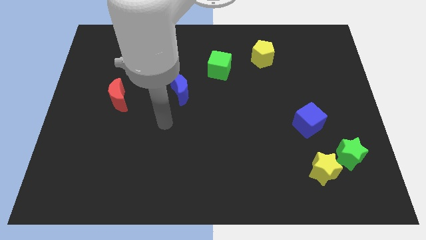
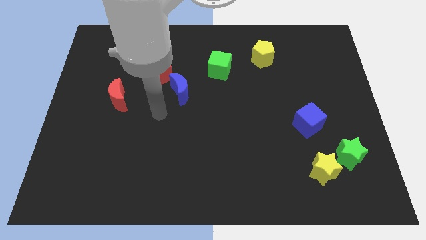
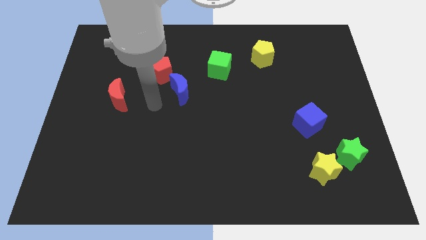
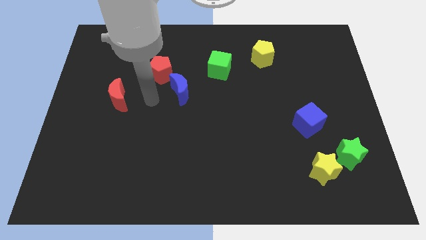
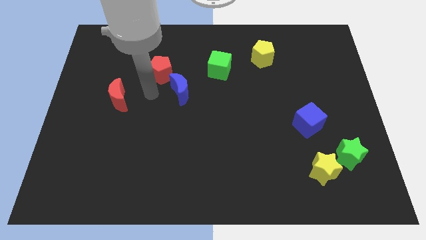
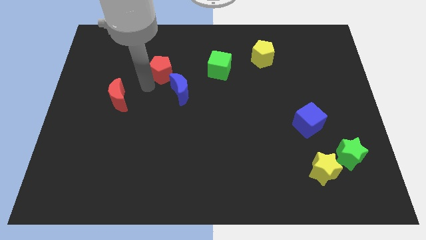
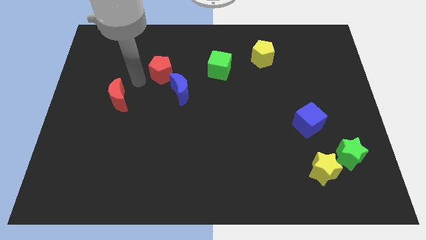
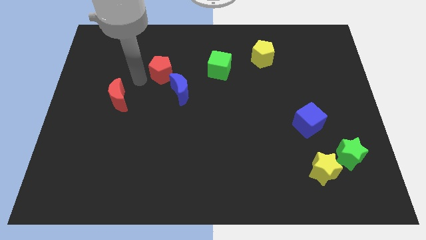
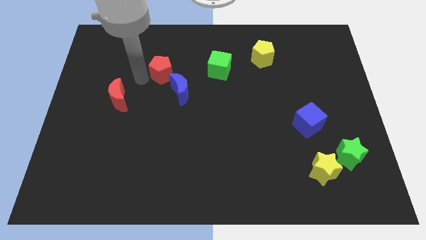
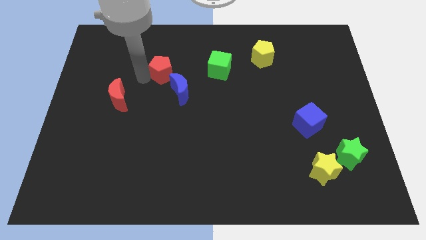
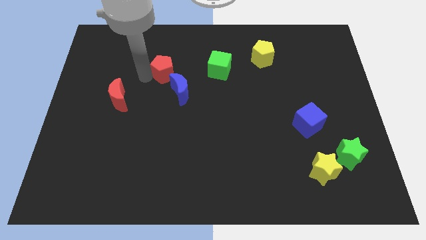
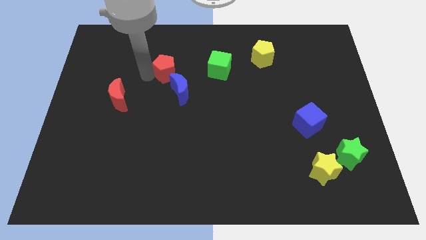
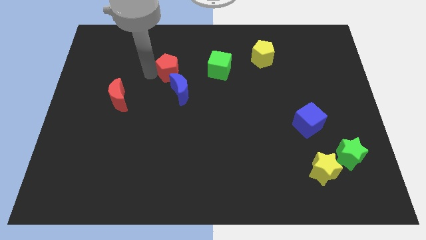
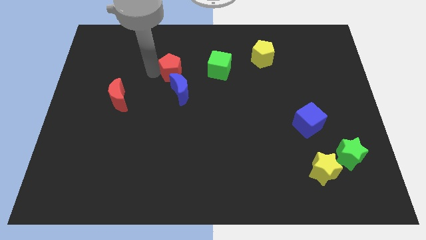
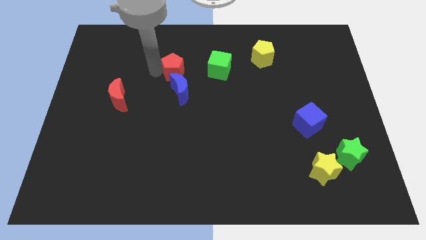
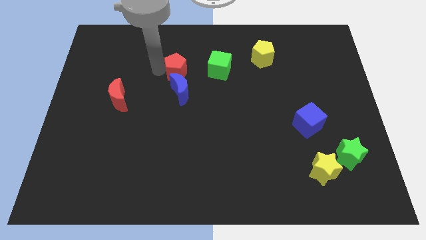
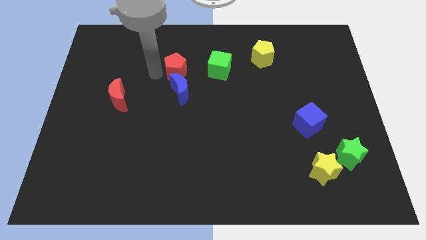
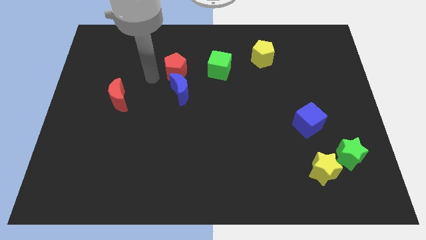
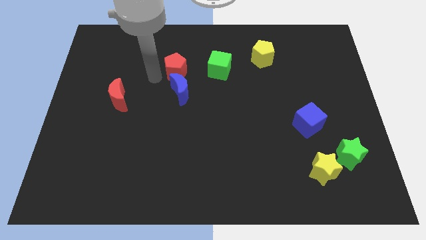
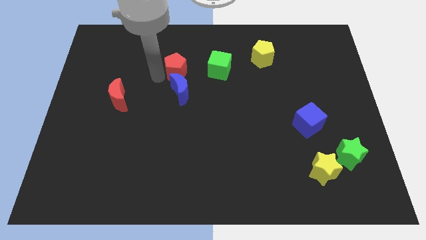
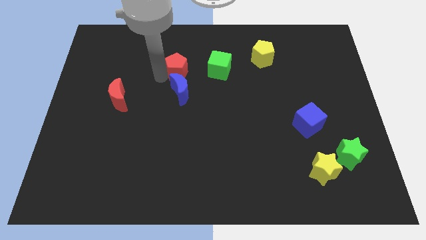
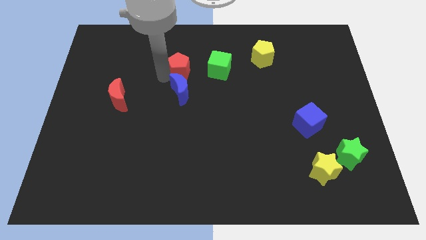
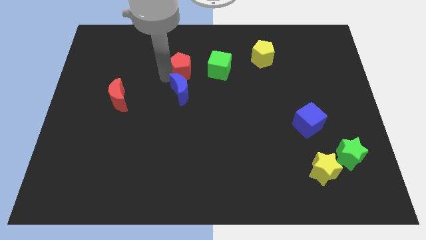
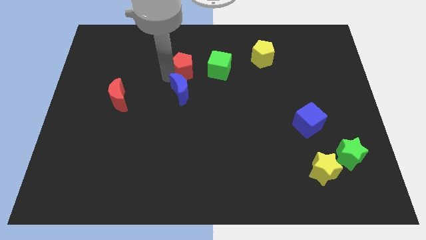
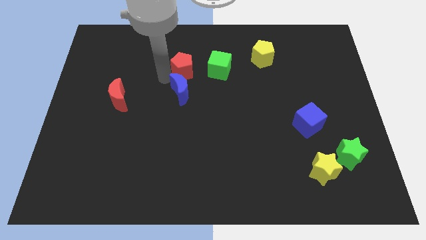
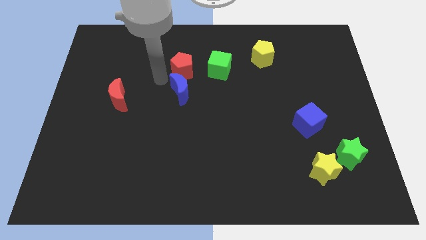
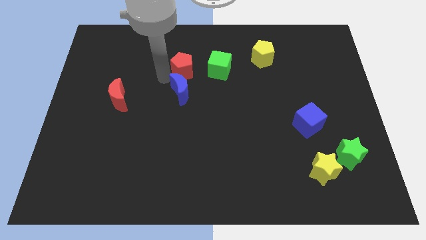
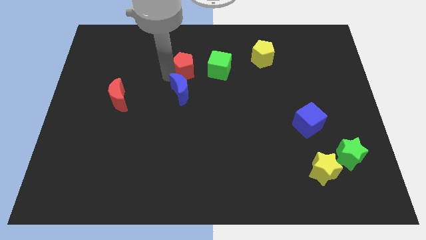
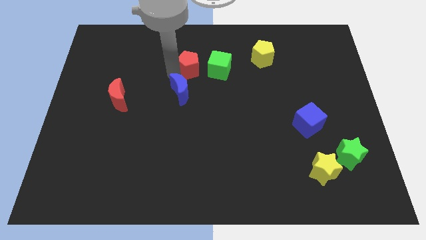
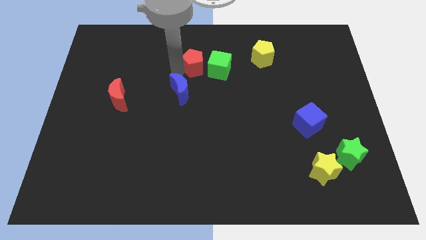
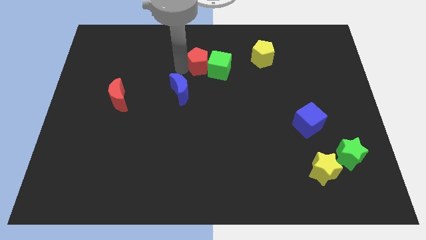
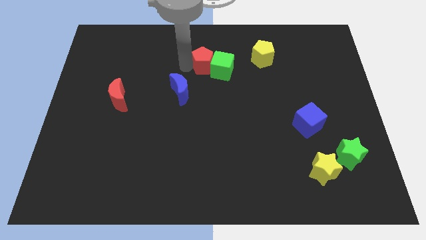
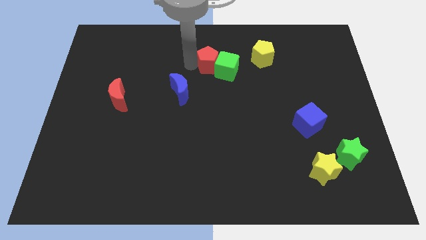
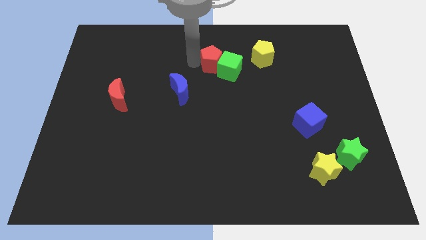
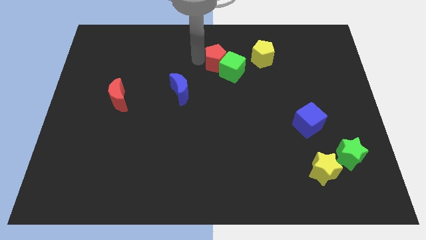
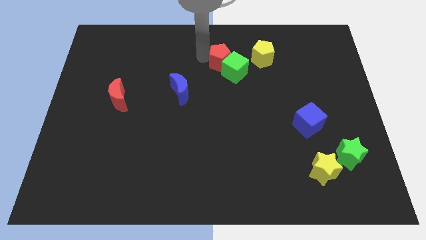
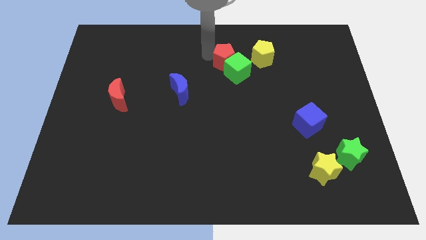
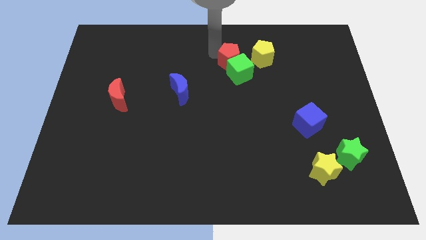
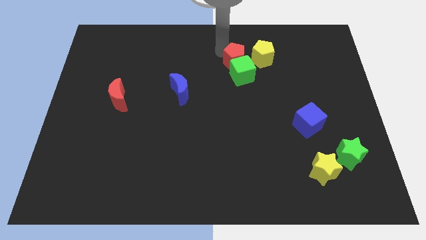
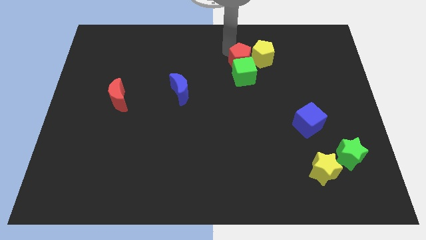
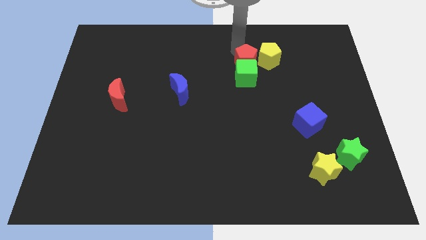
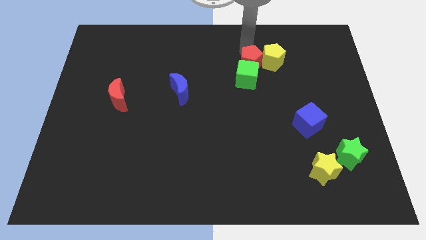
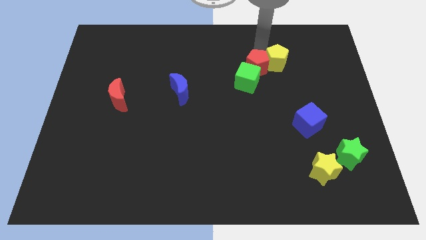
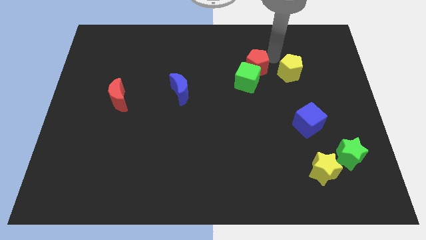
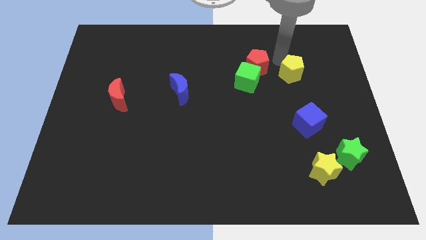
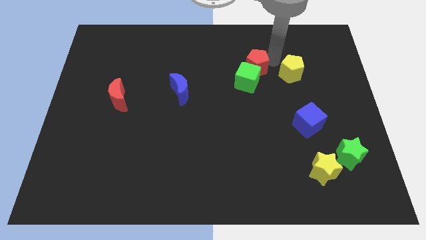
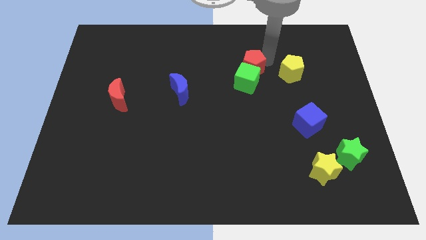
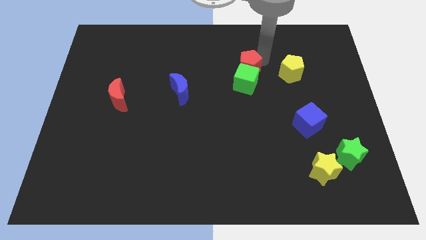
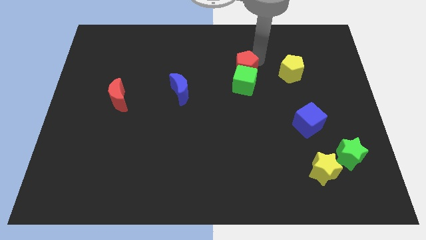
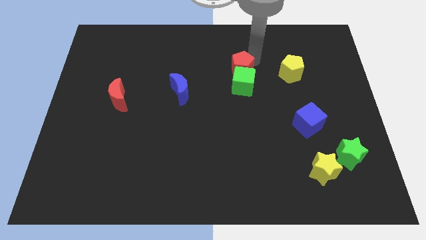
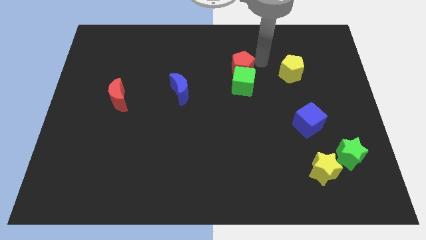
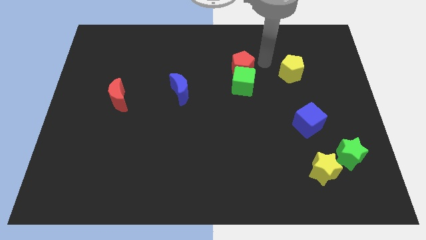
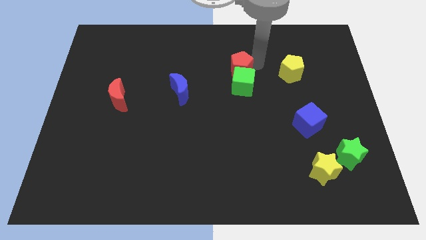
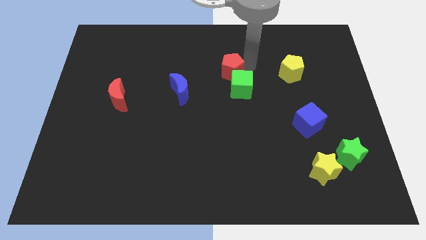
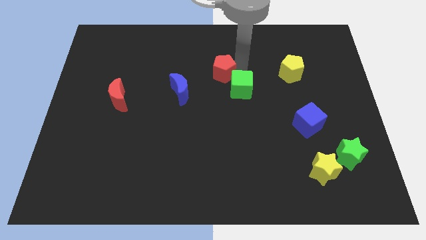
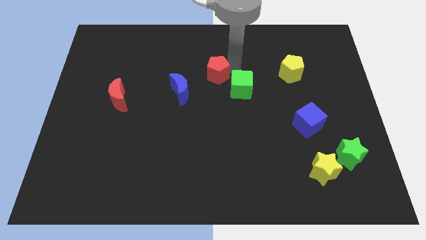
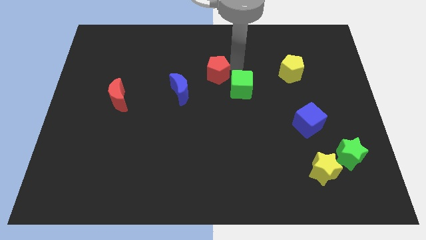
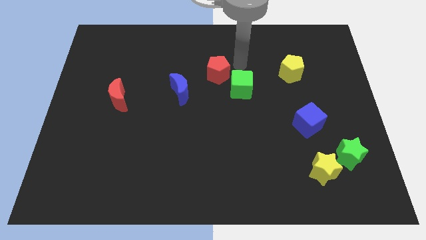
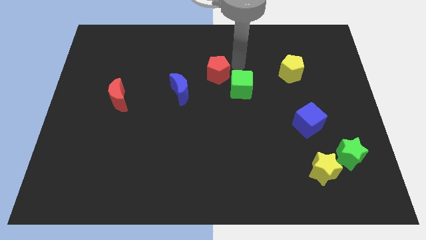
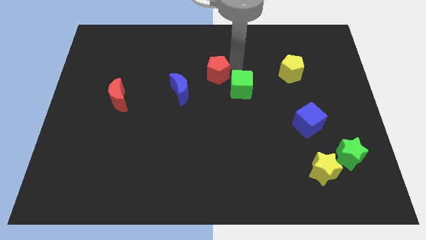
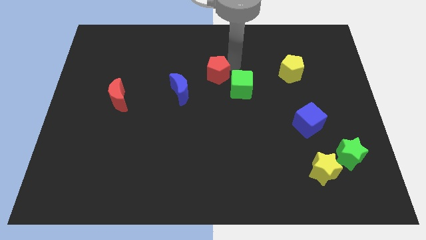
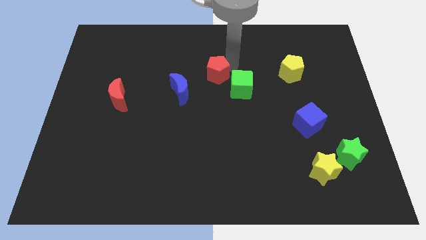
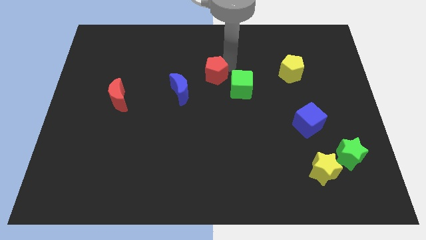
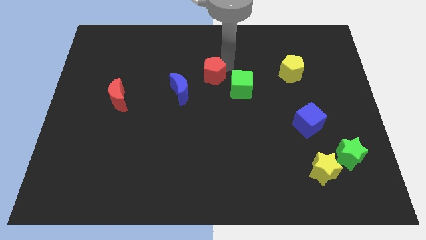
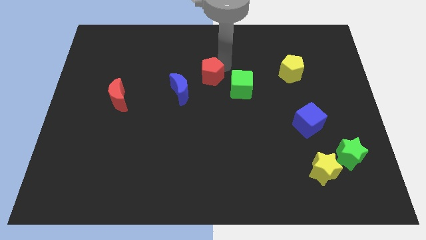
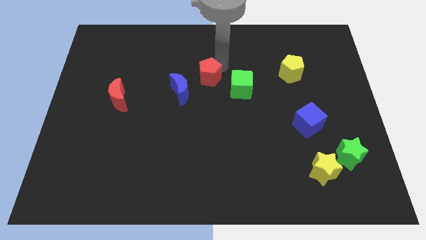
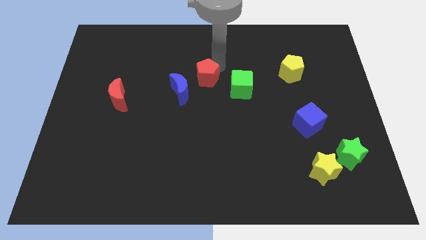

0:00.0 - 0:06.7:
move the red pentagon to the right side of the blue moon

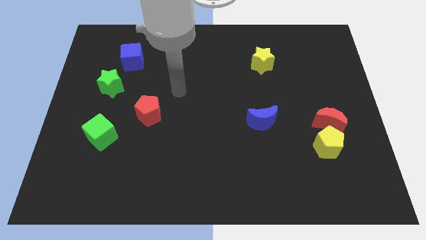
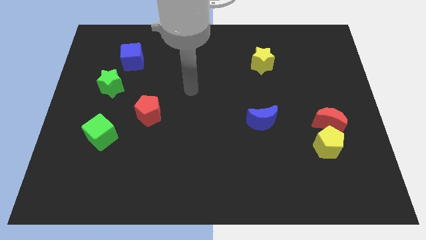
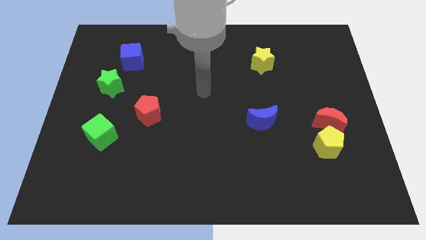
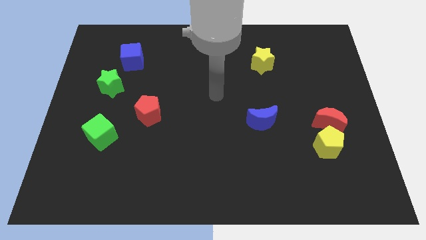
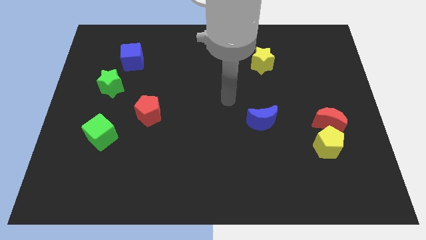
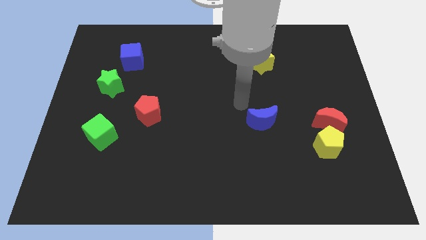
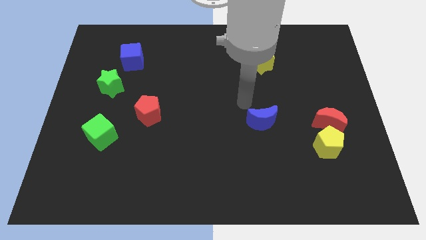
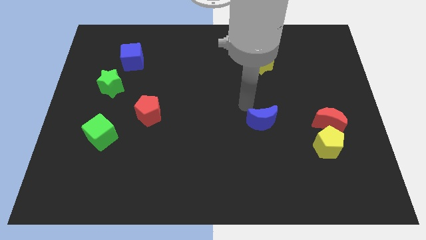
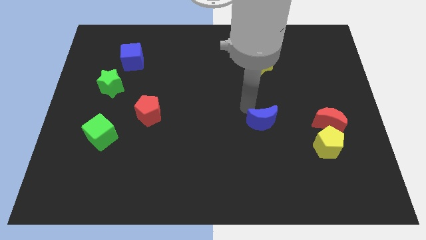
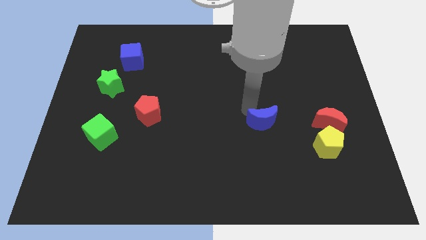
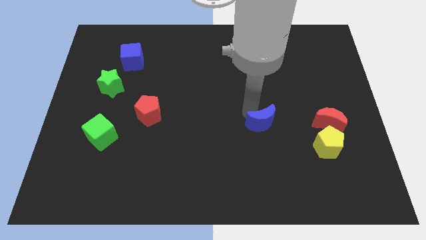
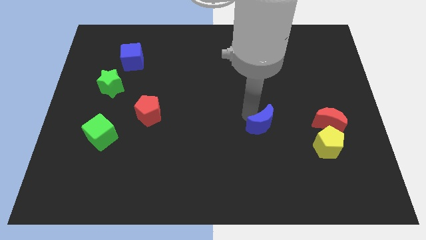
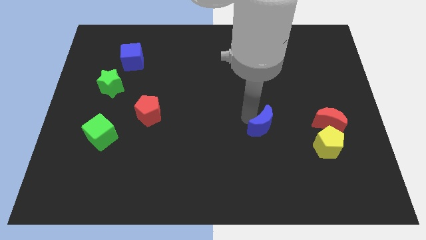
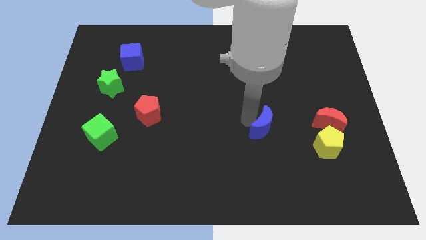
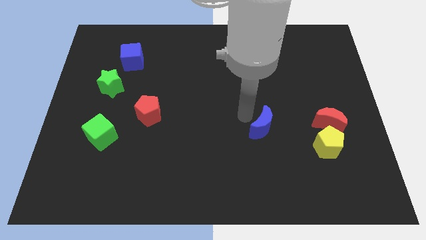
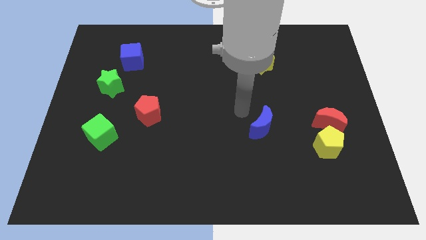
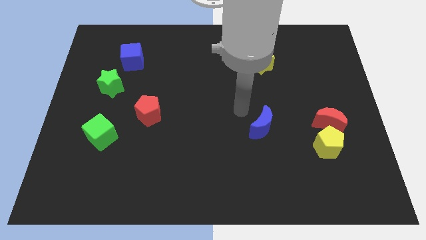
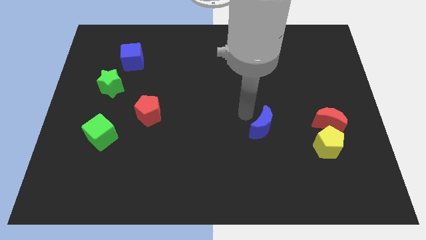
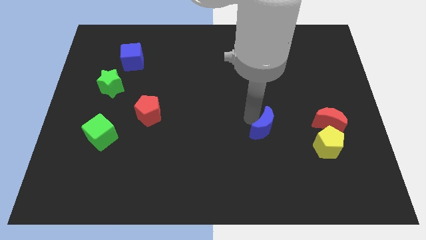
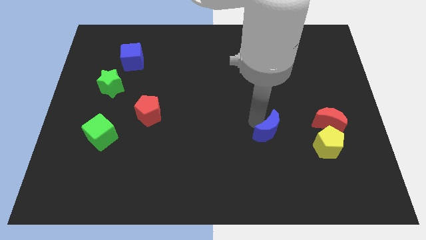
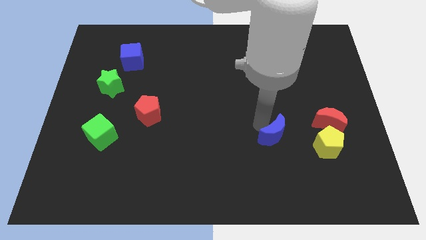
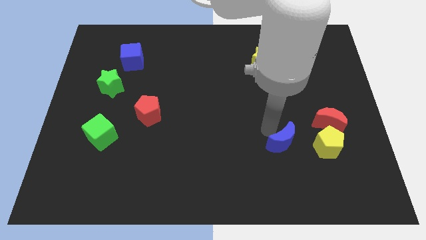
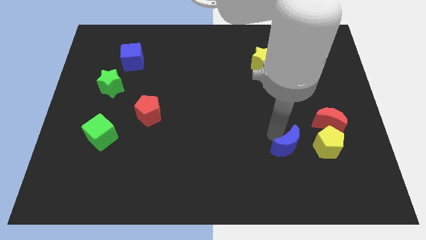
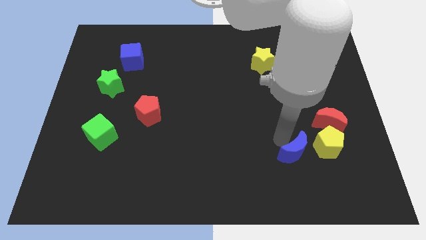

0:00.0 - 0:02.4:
push the blue moon diagonally down and to the left of the yellow pentagon
